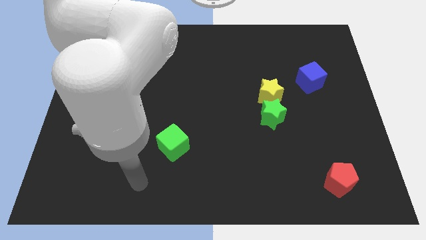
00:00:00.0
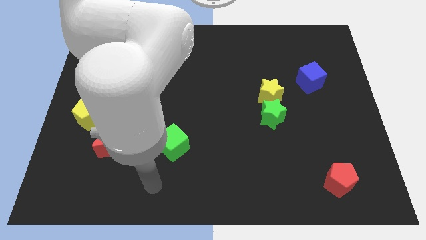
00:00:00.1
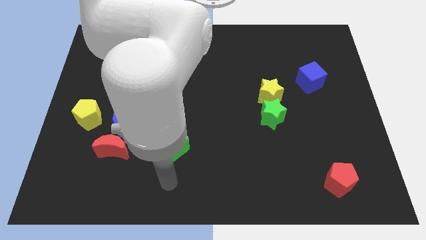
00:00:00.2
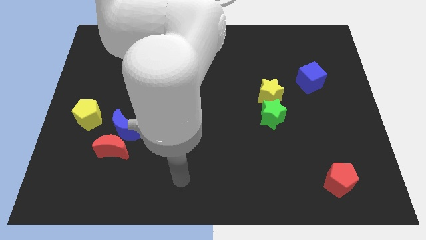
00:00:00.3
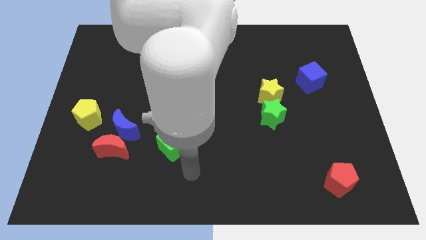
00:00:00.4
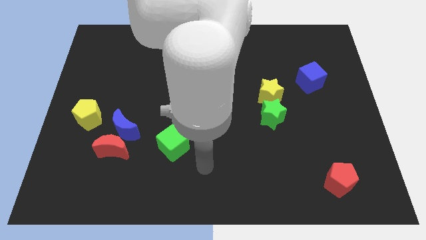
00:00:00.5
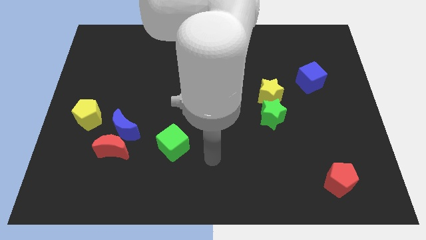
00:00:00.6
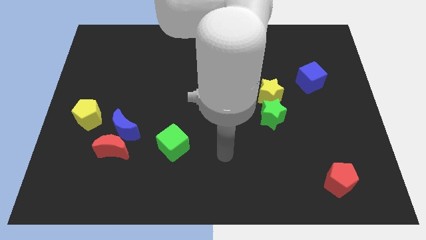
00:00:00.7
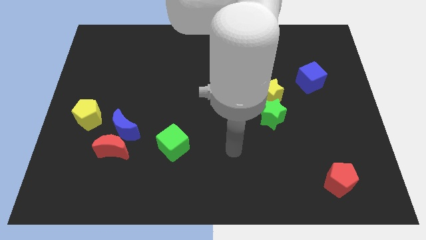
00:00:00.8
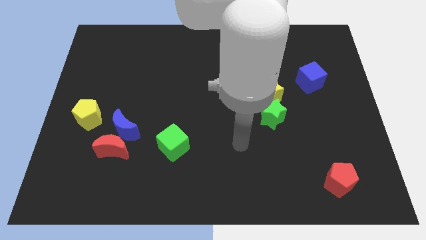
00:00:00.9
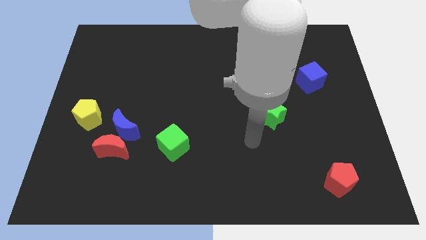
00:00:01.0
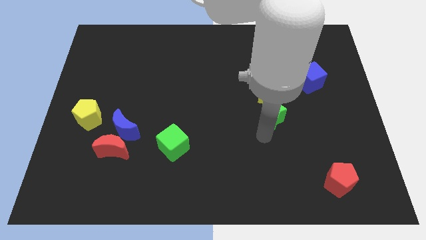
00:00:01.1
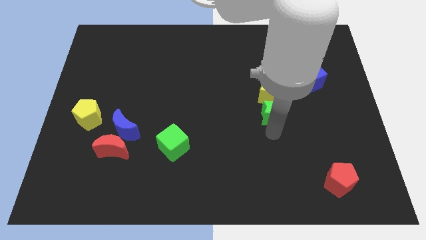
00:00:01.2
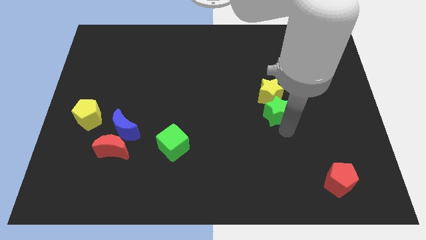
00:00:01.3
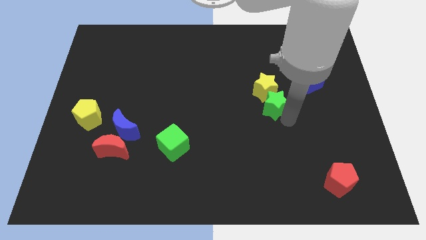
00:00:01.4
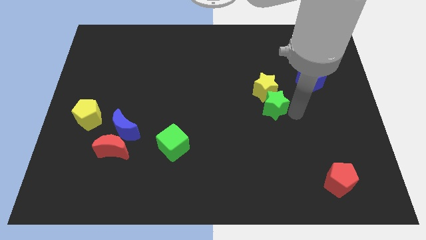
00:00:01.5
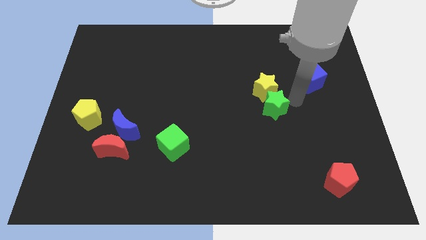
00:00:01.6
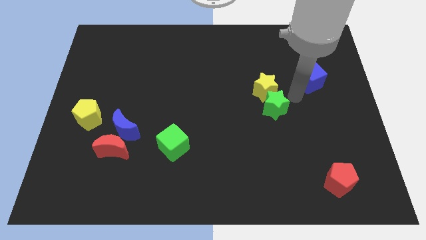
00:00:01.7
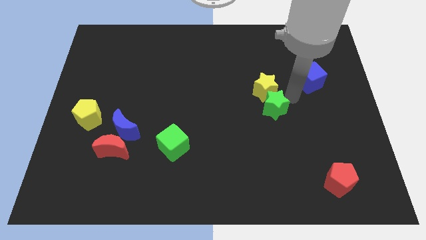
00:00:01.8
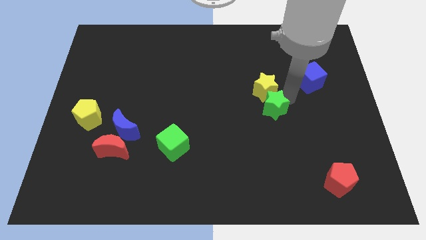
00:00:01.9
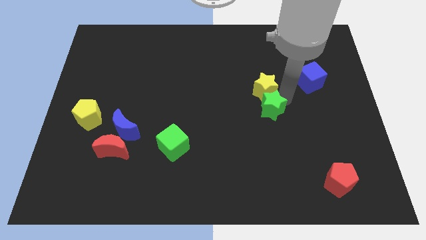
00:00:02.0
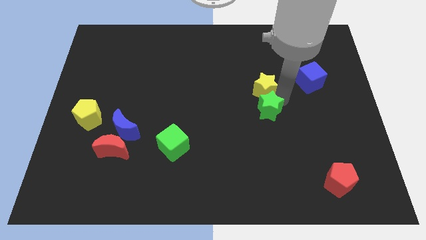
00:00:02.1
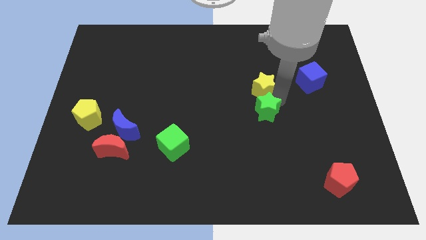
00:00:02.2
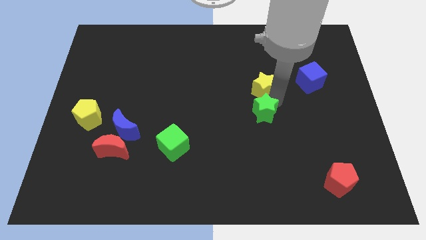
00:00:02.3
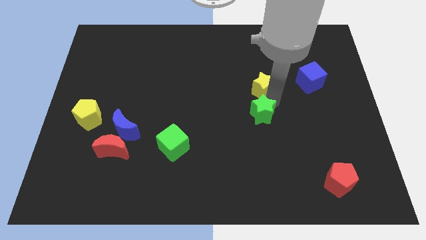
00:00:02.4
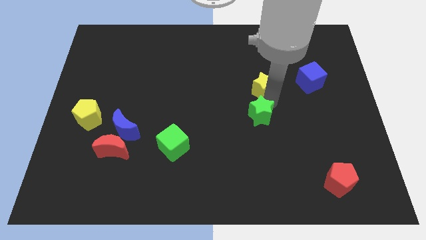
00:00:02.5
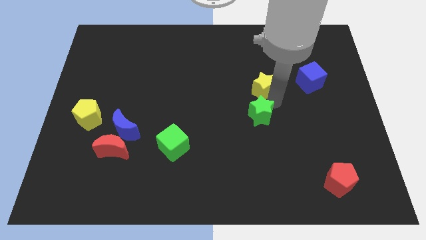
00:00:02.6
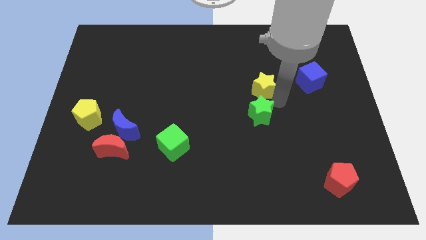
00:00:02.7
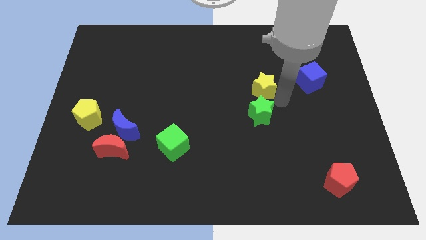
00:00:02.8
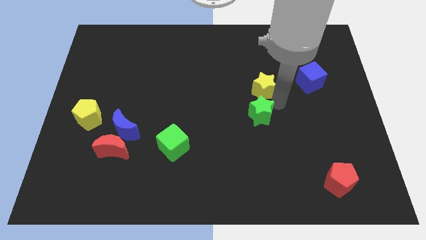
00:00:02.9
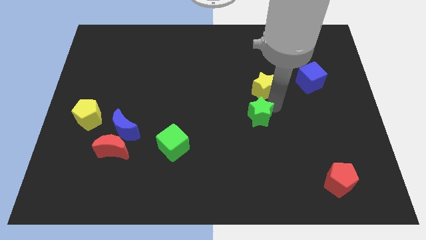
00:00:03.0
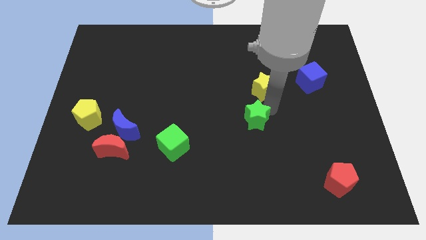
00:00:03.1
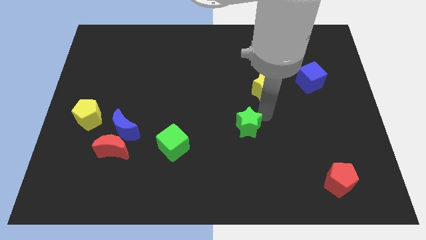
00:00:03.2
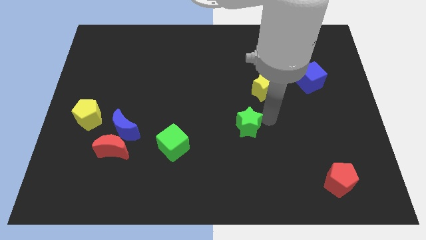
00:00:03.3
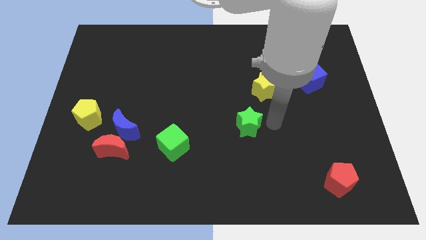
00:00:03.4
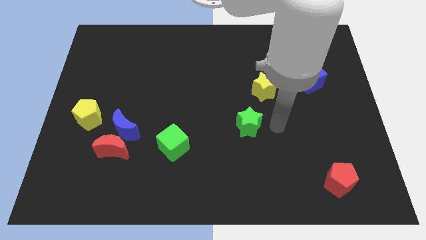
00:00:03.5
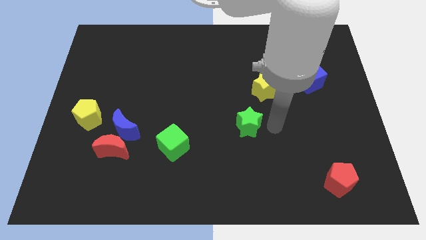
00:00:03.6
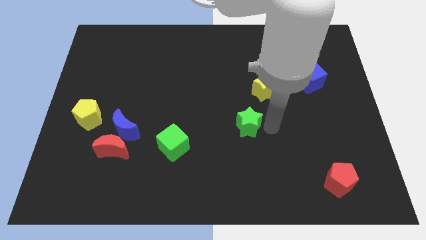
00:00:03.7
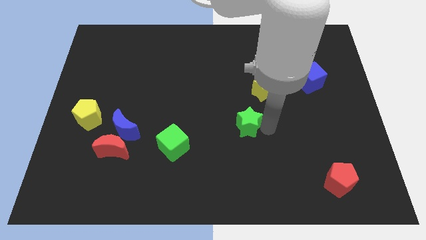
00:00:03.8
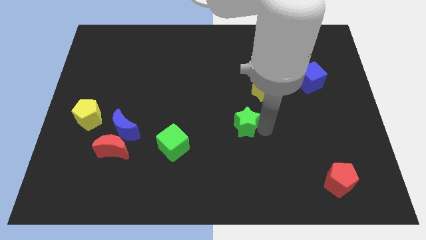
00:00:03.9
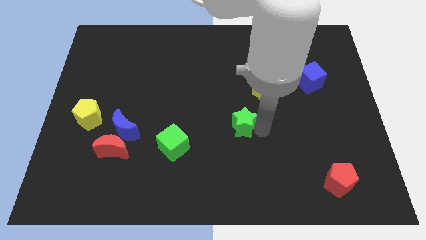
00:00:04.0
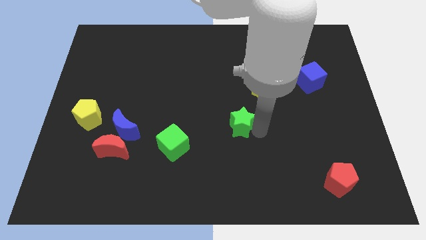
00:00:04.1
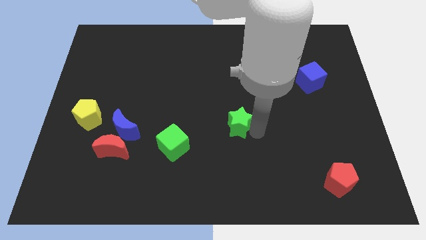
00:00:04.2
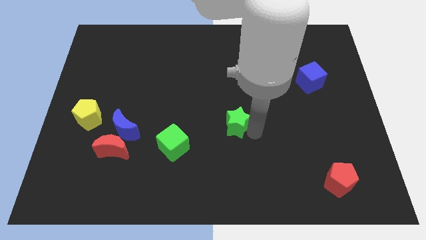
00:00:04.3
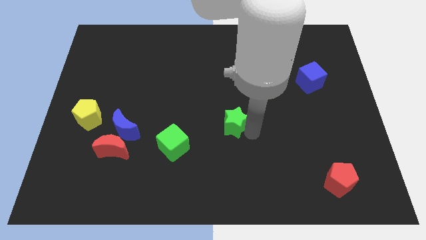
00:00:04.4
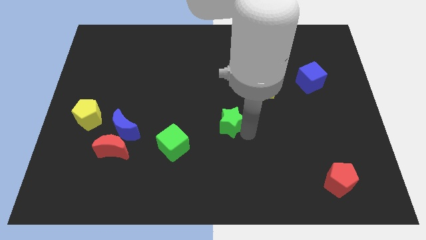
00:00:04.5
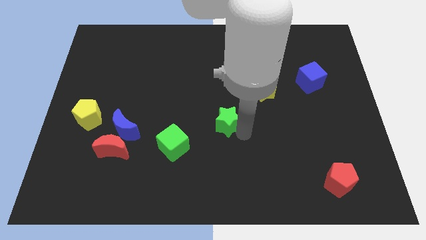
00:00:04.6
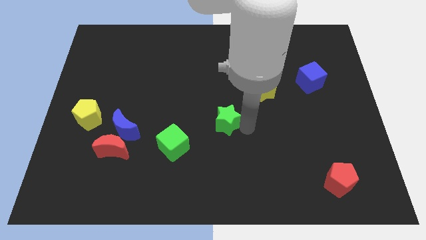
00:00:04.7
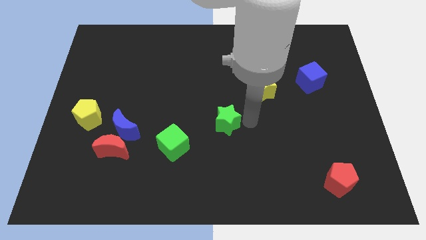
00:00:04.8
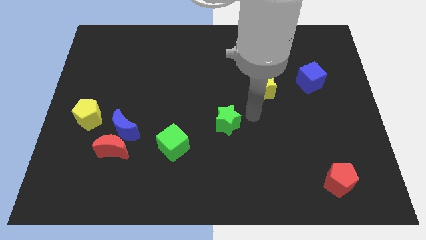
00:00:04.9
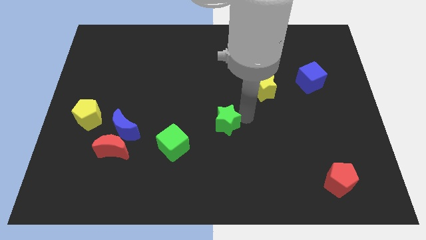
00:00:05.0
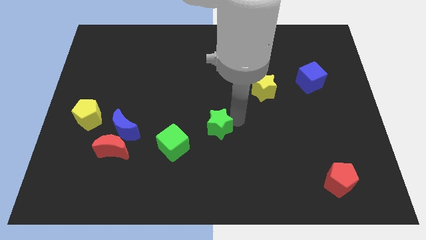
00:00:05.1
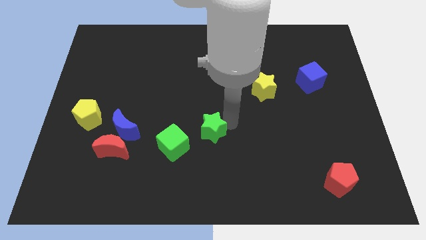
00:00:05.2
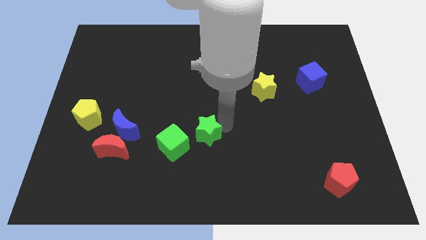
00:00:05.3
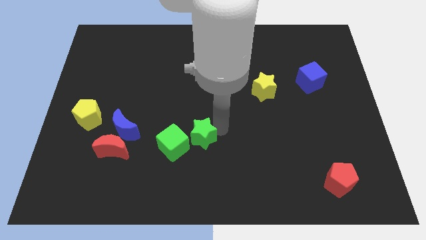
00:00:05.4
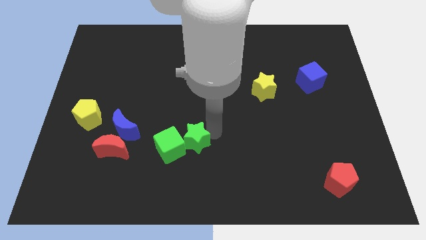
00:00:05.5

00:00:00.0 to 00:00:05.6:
slide the green star towards the green cube

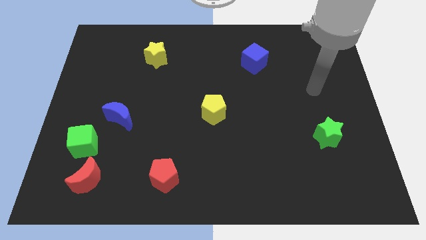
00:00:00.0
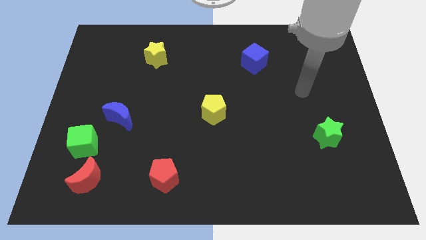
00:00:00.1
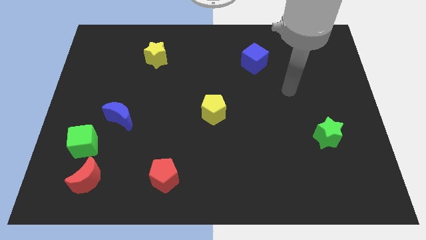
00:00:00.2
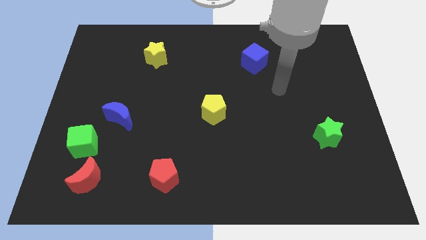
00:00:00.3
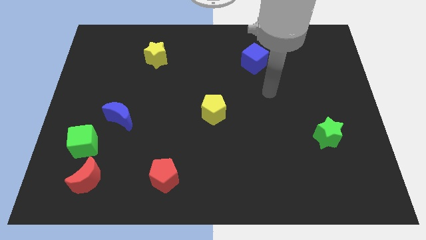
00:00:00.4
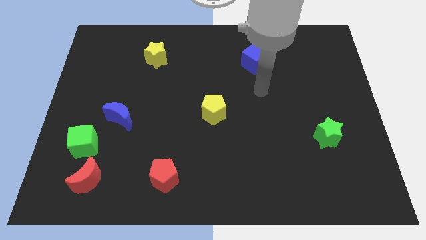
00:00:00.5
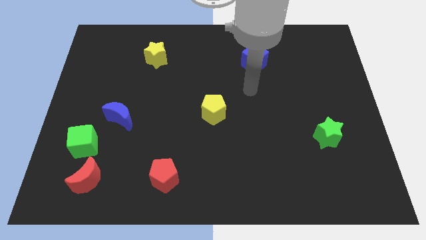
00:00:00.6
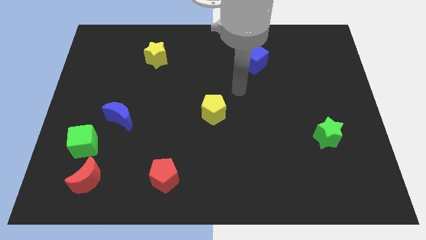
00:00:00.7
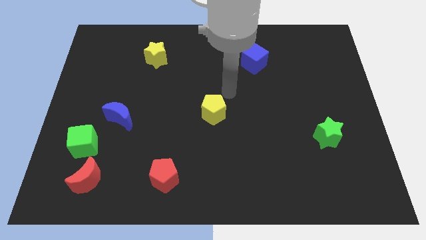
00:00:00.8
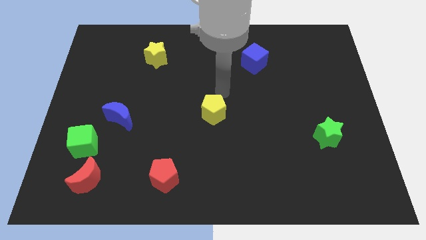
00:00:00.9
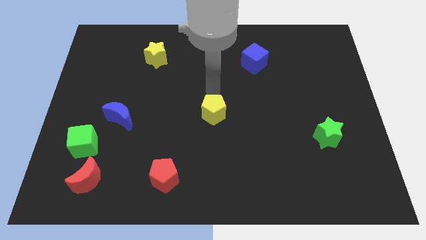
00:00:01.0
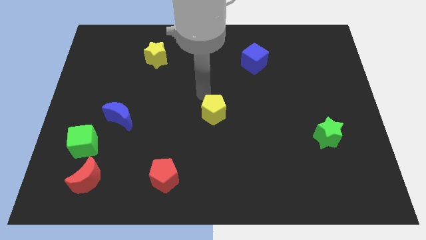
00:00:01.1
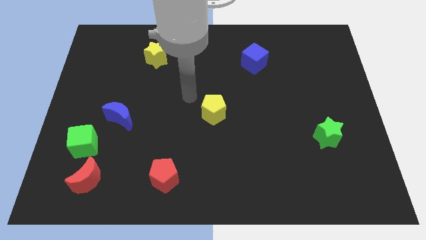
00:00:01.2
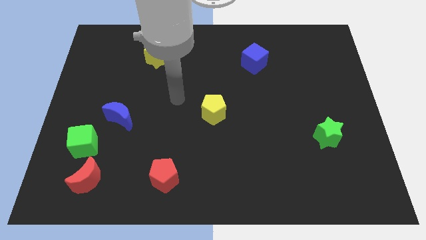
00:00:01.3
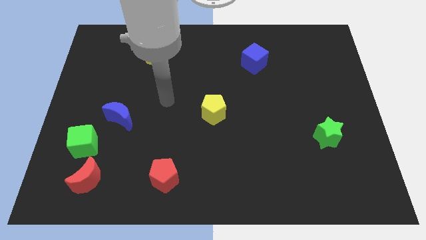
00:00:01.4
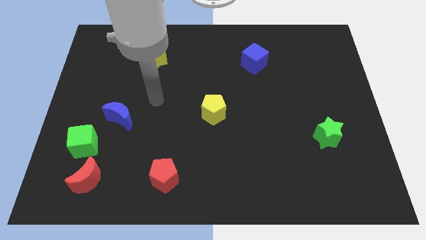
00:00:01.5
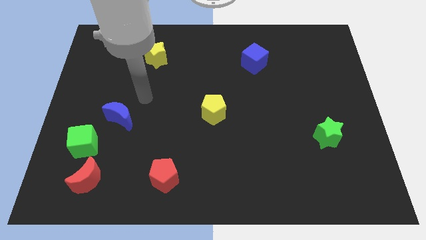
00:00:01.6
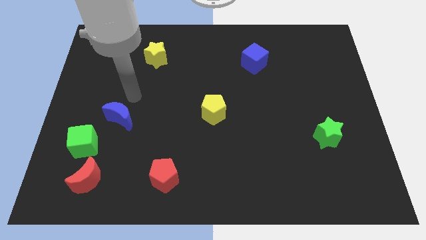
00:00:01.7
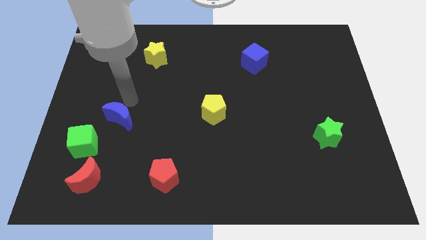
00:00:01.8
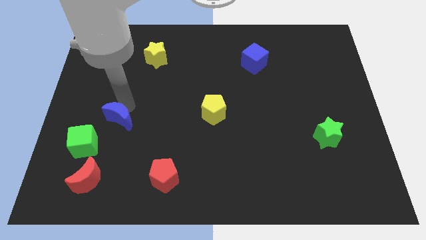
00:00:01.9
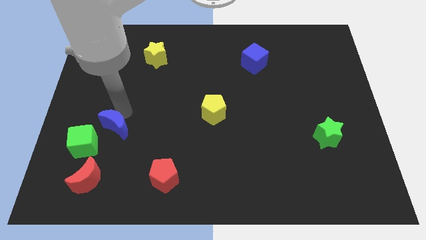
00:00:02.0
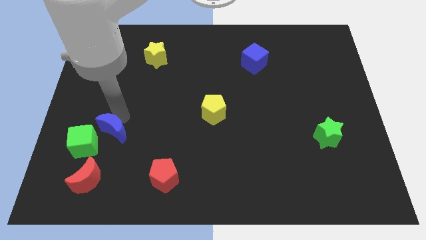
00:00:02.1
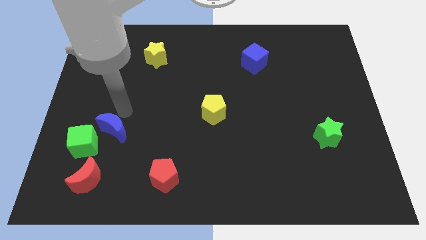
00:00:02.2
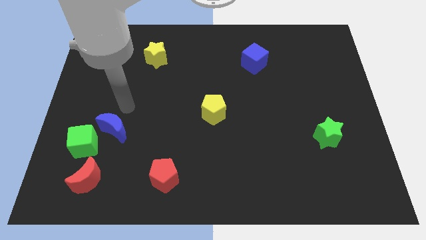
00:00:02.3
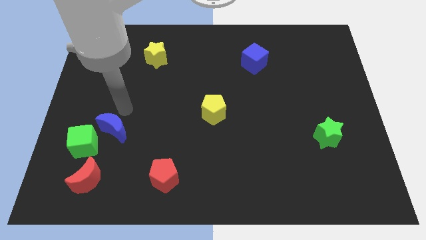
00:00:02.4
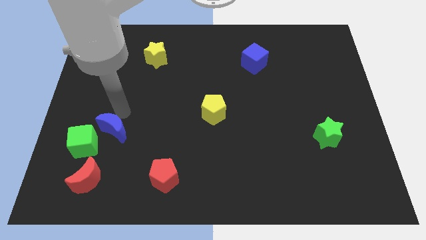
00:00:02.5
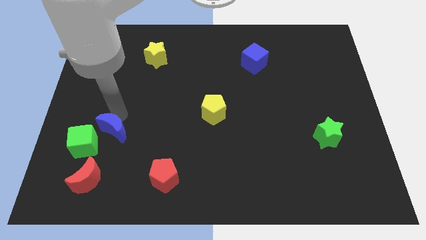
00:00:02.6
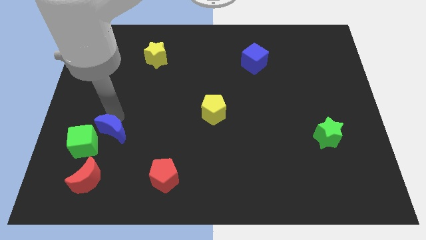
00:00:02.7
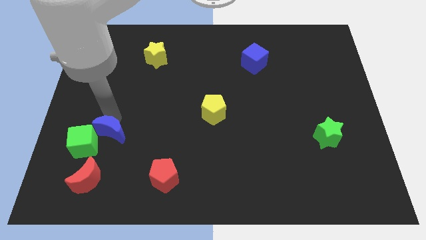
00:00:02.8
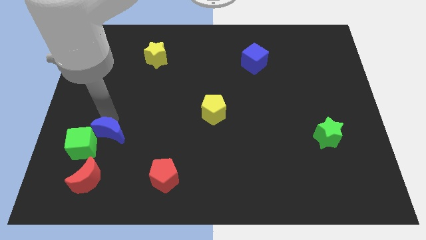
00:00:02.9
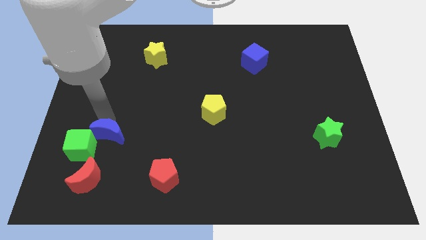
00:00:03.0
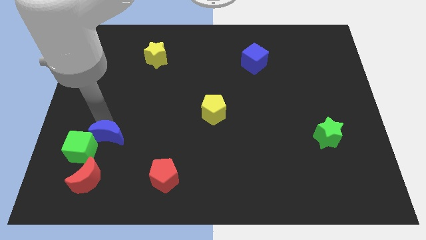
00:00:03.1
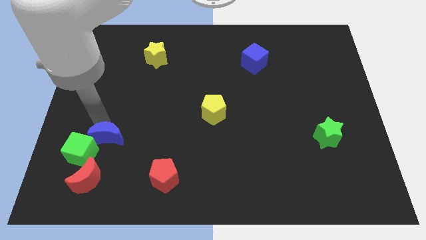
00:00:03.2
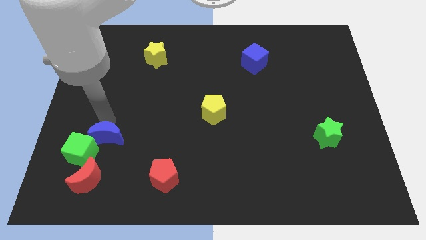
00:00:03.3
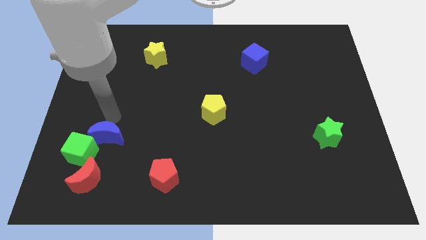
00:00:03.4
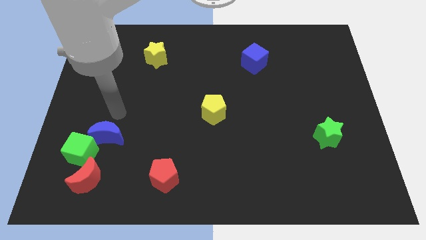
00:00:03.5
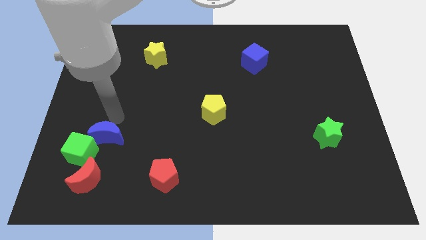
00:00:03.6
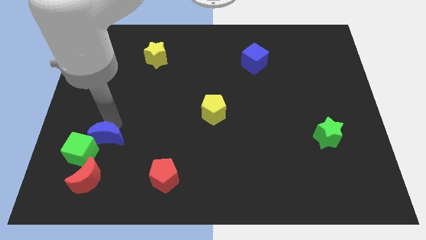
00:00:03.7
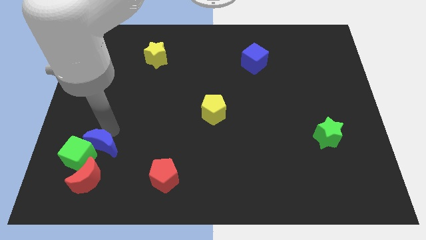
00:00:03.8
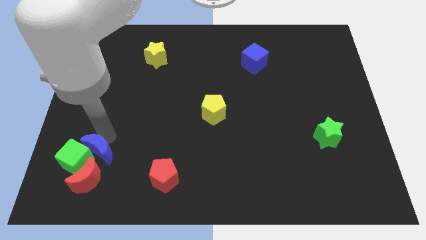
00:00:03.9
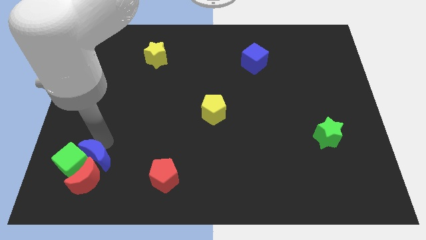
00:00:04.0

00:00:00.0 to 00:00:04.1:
move the blue moon next to the red moon
